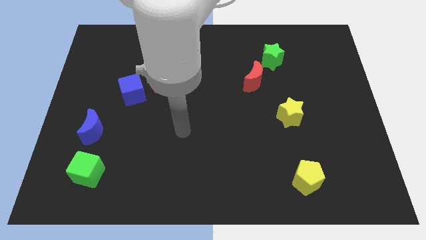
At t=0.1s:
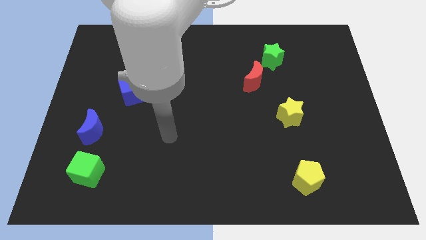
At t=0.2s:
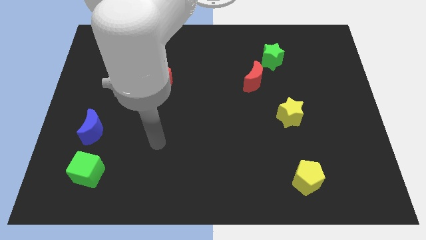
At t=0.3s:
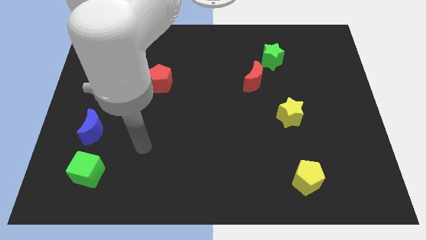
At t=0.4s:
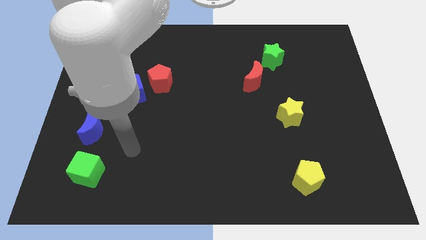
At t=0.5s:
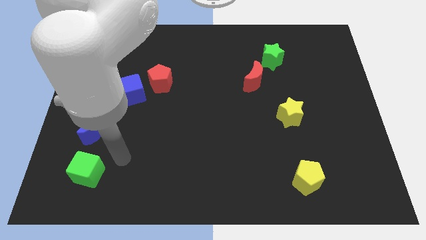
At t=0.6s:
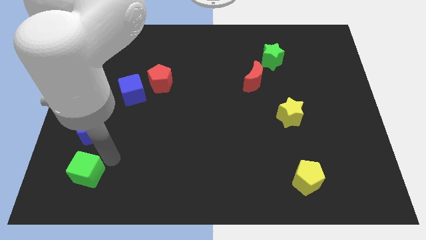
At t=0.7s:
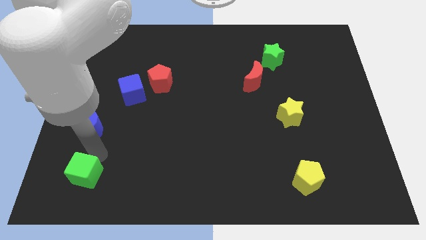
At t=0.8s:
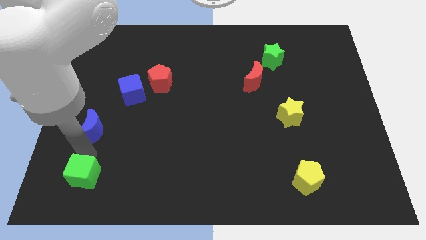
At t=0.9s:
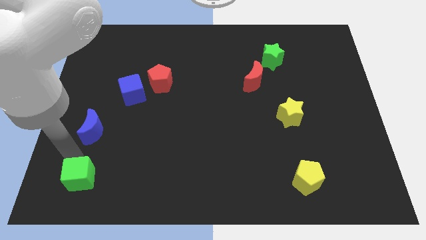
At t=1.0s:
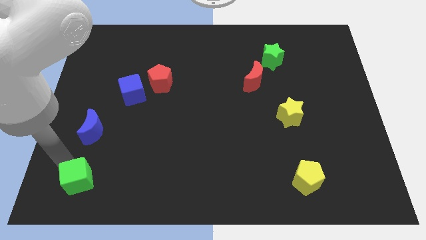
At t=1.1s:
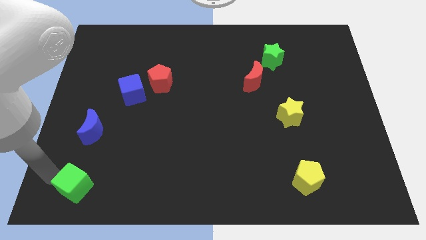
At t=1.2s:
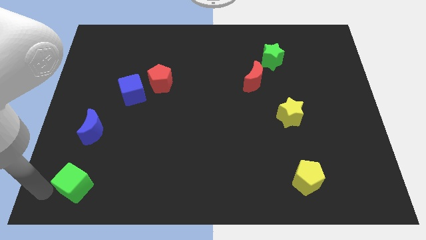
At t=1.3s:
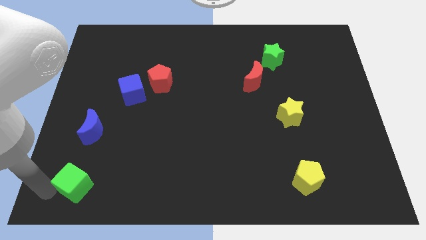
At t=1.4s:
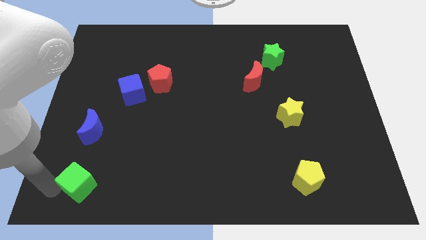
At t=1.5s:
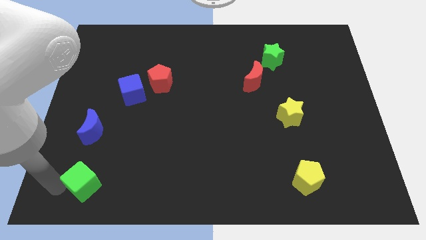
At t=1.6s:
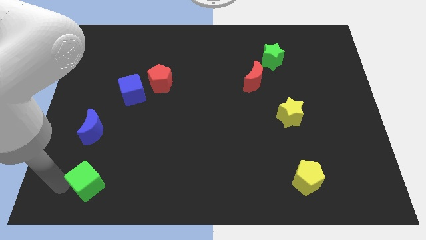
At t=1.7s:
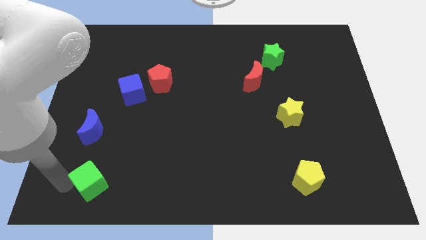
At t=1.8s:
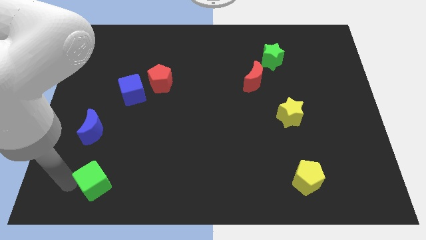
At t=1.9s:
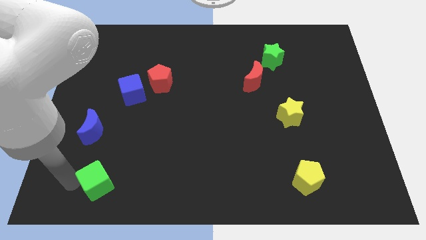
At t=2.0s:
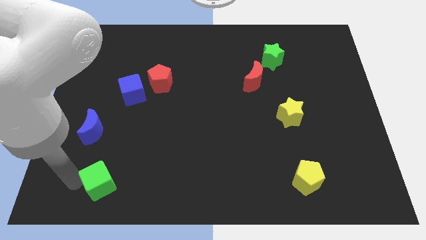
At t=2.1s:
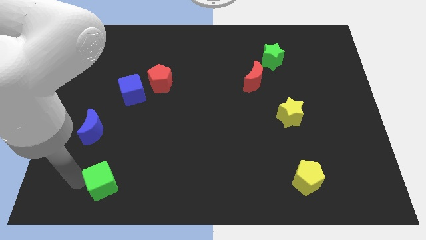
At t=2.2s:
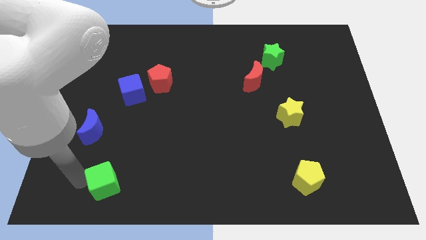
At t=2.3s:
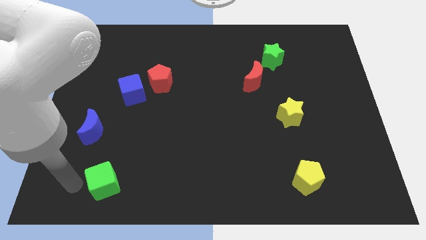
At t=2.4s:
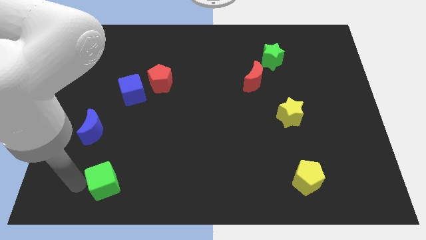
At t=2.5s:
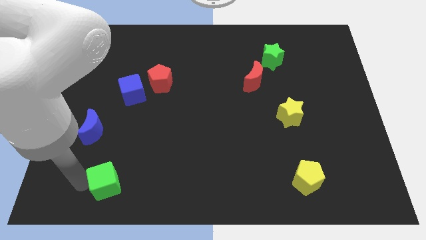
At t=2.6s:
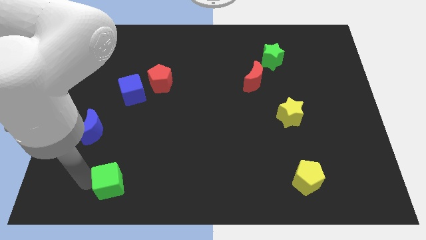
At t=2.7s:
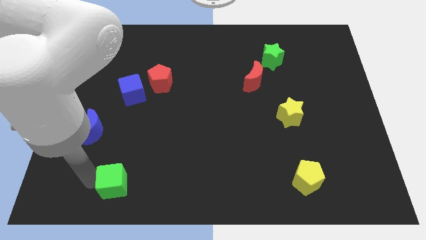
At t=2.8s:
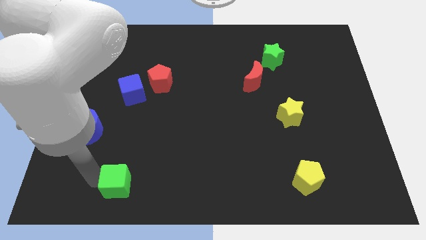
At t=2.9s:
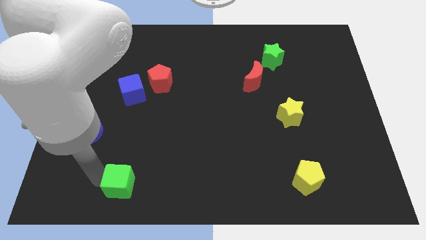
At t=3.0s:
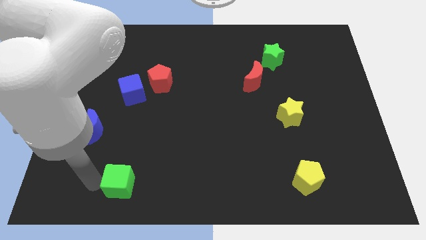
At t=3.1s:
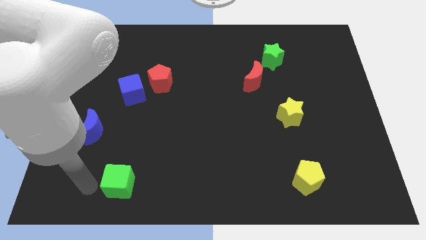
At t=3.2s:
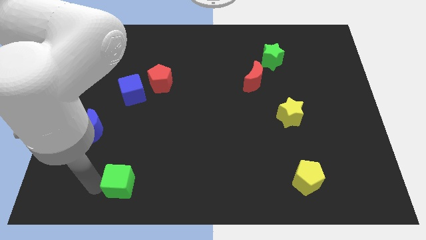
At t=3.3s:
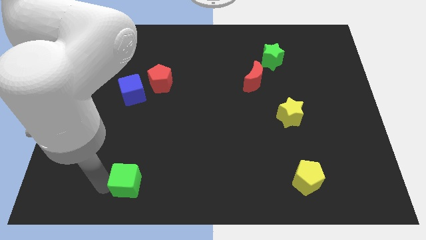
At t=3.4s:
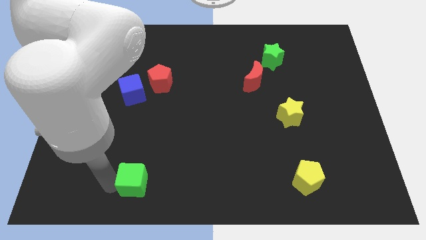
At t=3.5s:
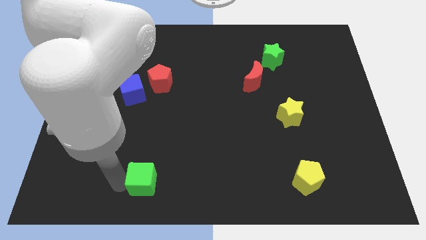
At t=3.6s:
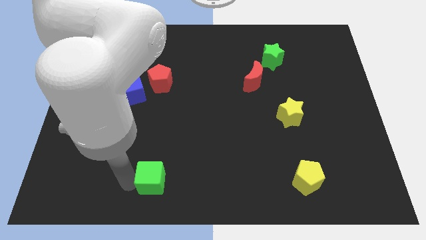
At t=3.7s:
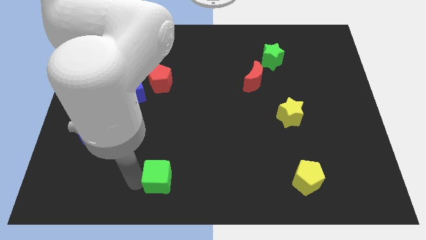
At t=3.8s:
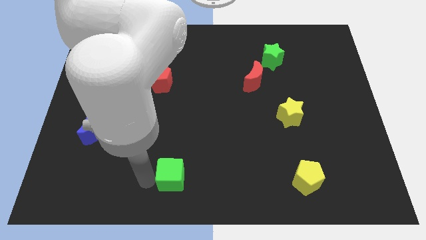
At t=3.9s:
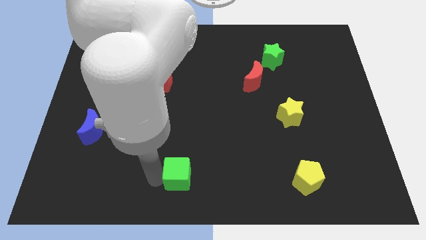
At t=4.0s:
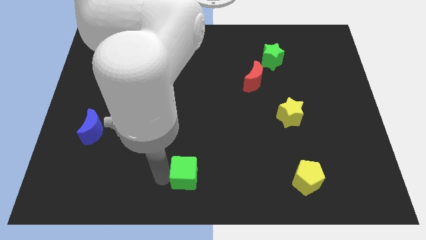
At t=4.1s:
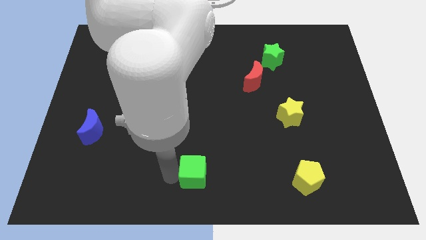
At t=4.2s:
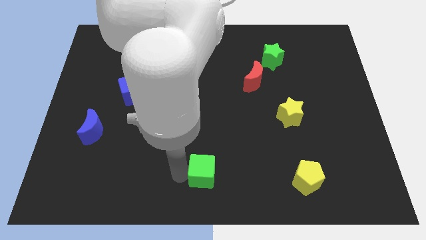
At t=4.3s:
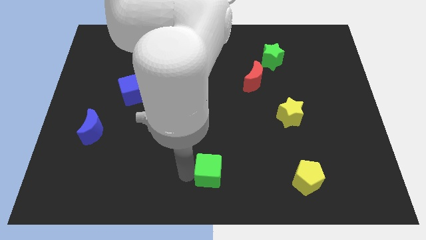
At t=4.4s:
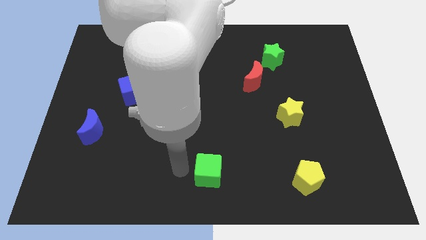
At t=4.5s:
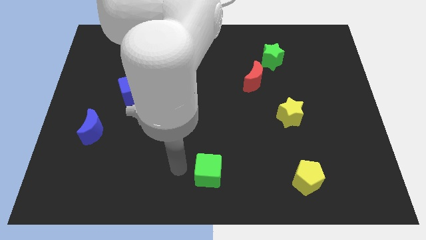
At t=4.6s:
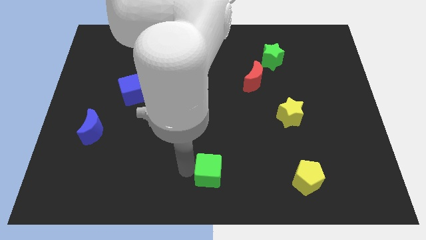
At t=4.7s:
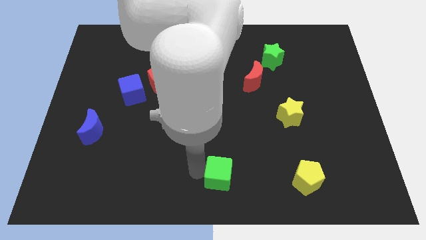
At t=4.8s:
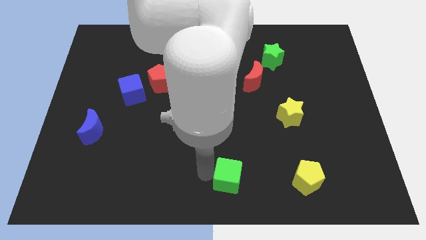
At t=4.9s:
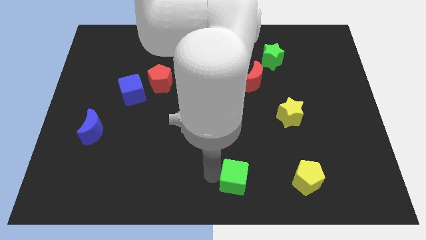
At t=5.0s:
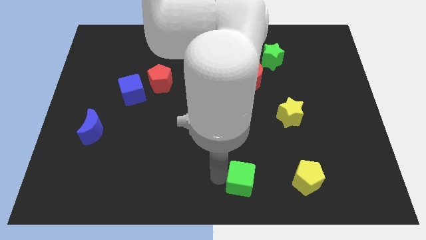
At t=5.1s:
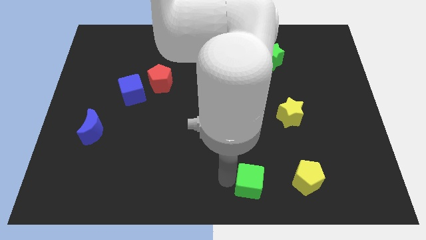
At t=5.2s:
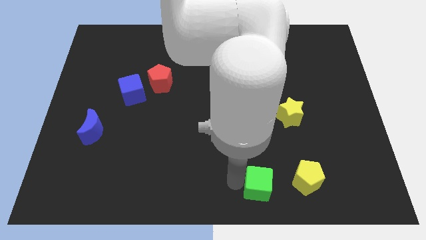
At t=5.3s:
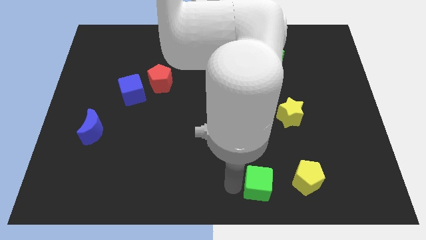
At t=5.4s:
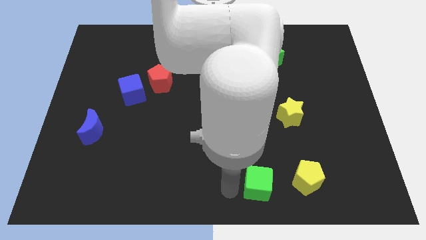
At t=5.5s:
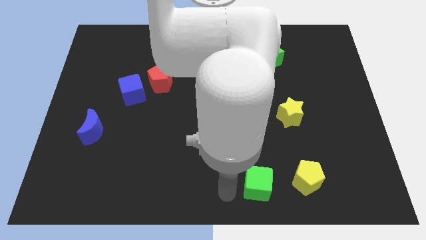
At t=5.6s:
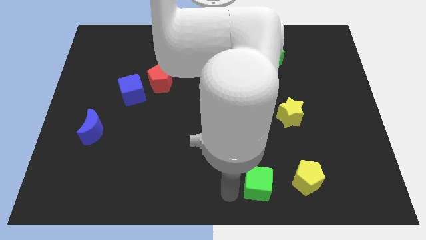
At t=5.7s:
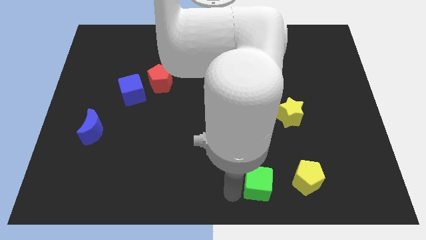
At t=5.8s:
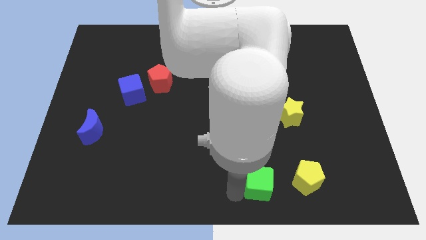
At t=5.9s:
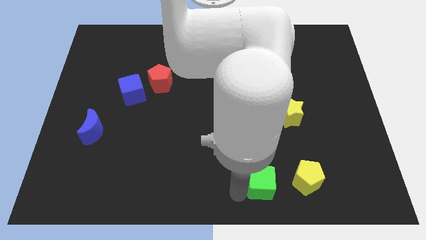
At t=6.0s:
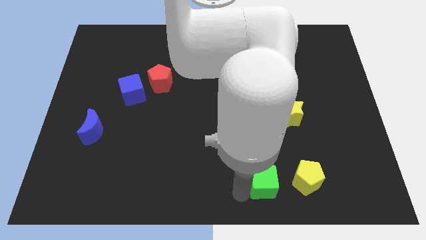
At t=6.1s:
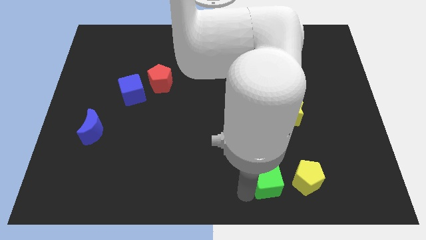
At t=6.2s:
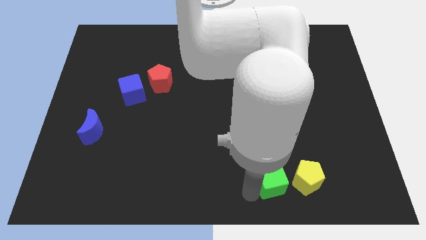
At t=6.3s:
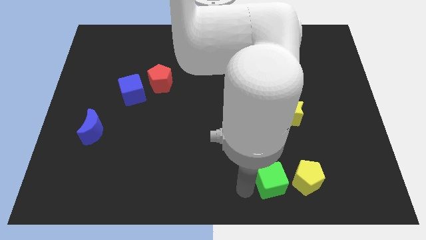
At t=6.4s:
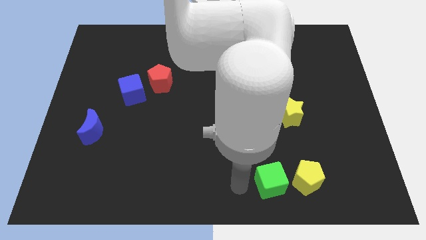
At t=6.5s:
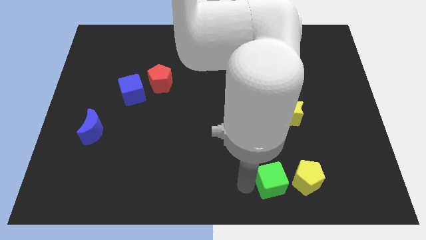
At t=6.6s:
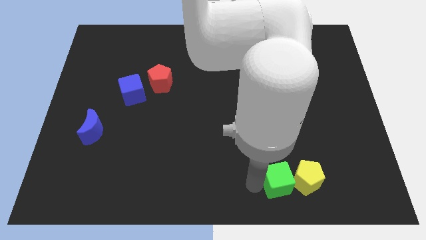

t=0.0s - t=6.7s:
slide the green cube close to the yellow pentagon
